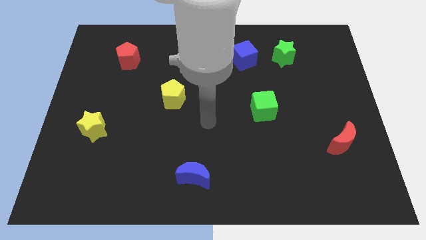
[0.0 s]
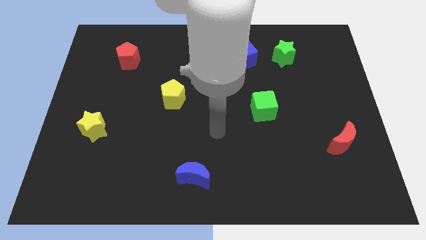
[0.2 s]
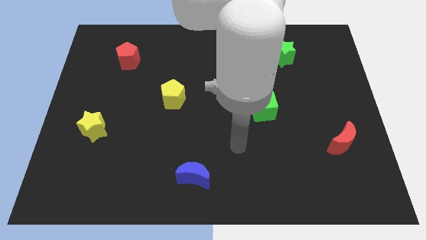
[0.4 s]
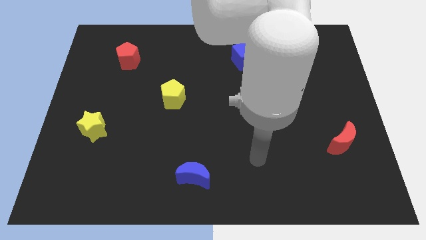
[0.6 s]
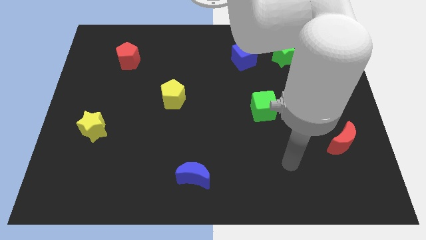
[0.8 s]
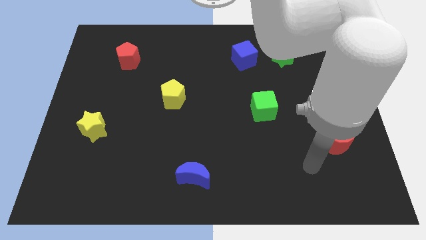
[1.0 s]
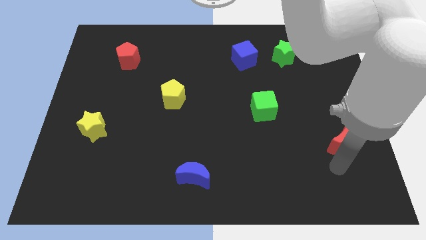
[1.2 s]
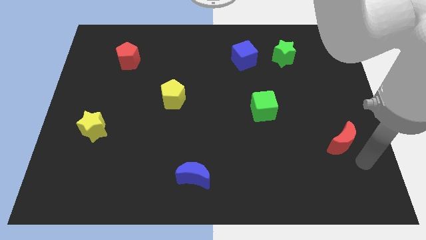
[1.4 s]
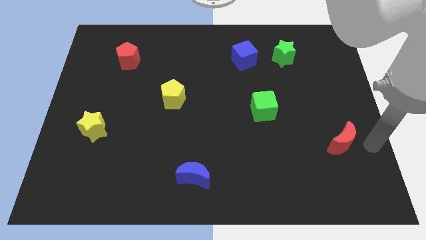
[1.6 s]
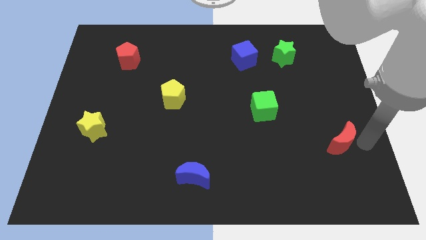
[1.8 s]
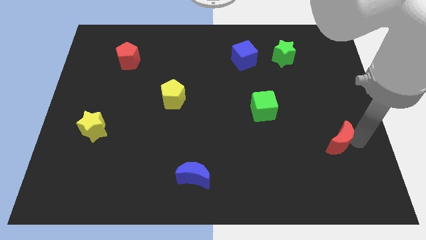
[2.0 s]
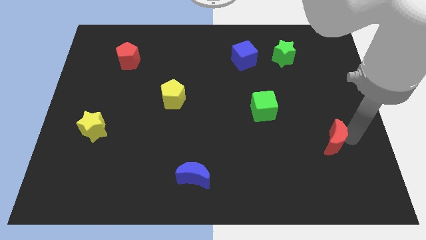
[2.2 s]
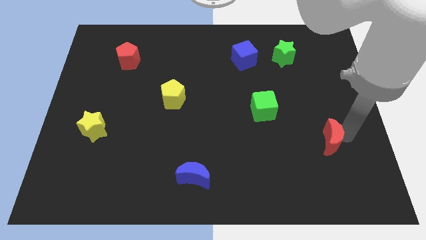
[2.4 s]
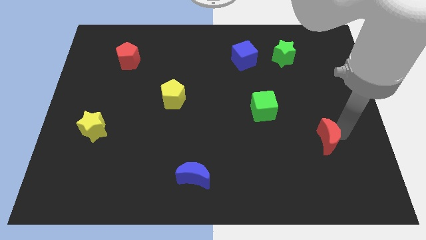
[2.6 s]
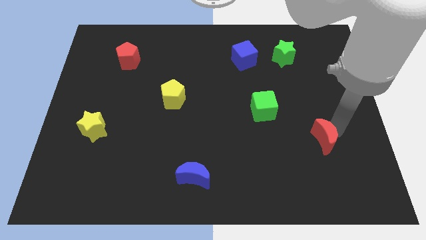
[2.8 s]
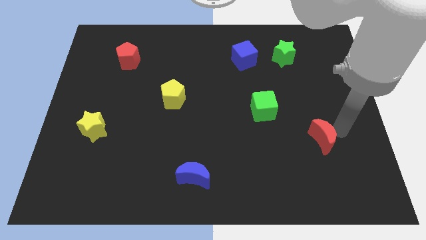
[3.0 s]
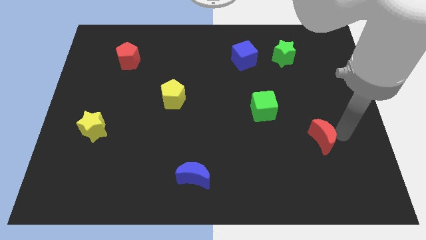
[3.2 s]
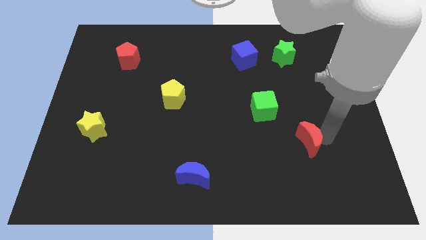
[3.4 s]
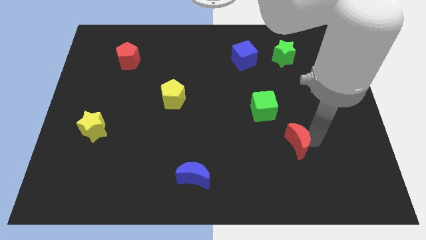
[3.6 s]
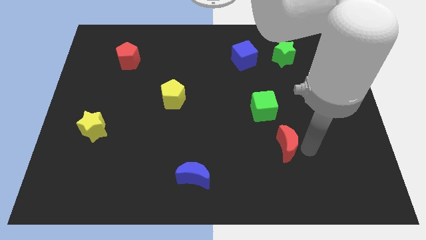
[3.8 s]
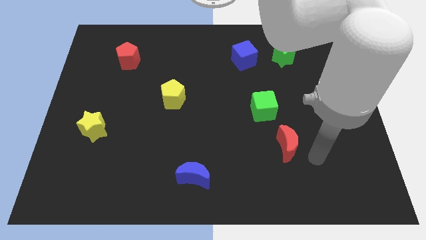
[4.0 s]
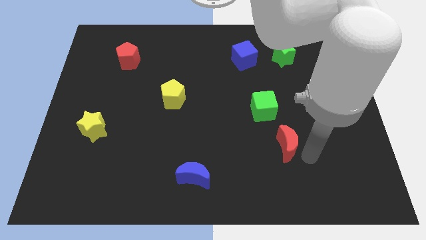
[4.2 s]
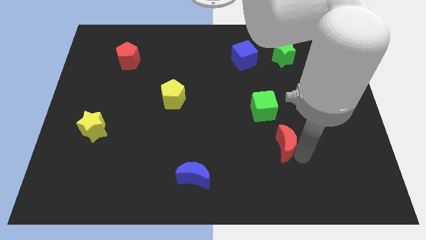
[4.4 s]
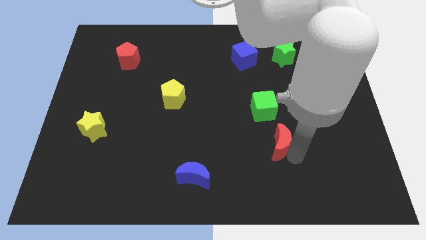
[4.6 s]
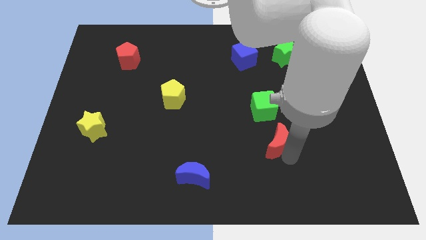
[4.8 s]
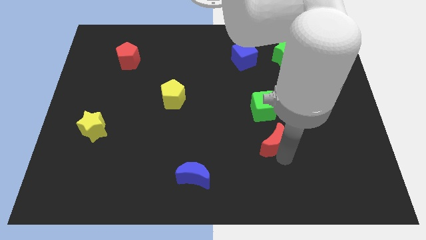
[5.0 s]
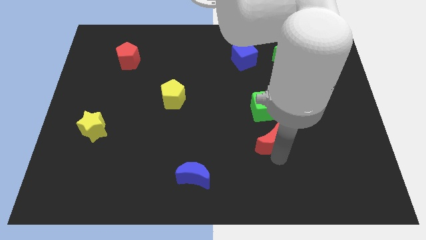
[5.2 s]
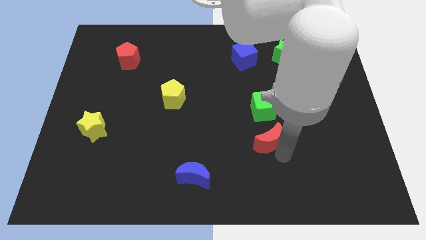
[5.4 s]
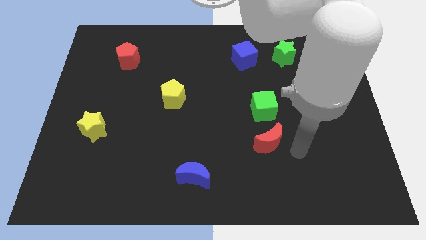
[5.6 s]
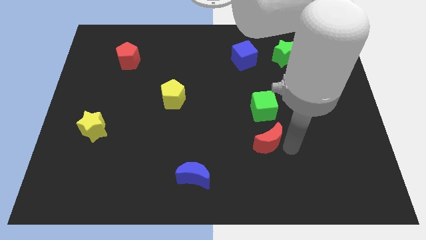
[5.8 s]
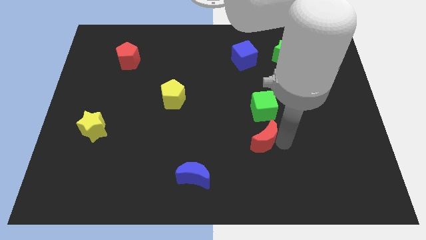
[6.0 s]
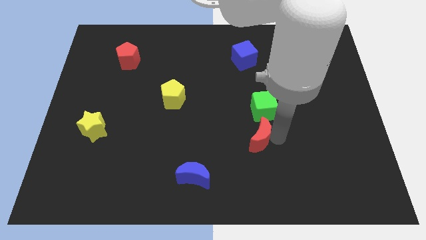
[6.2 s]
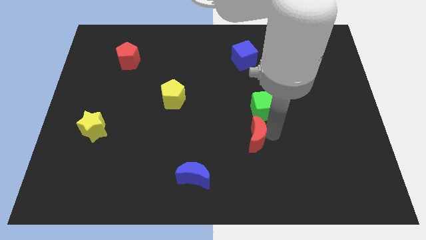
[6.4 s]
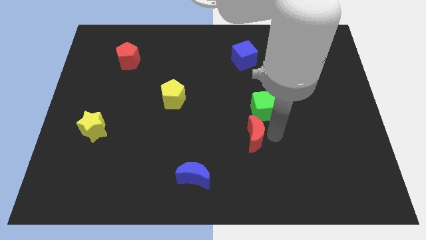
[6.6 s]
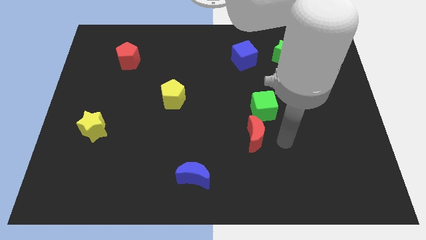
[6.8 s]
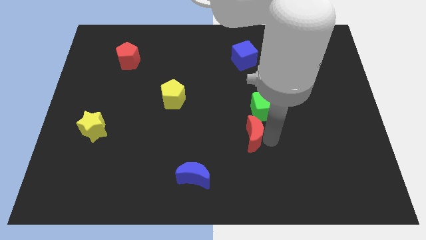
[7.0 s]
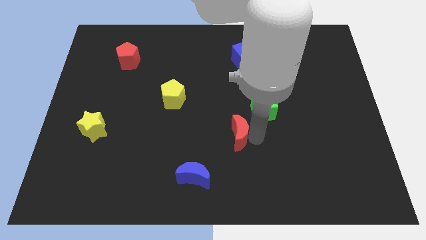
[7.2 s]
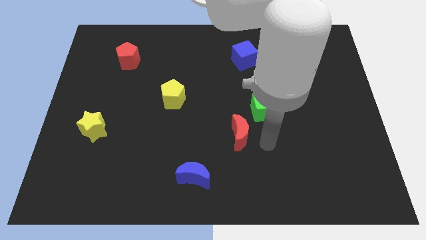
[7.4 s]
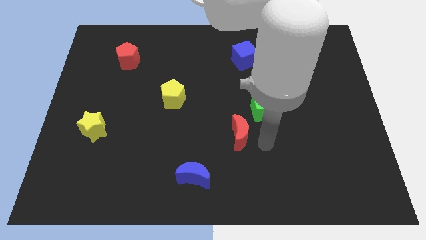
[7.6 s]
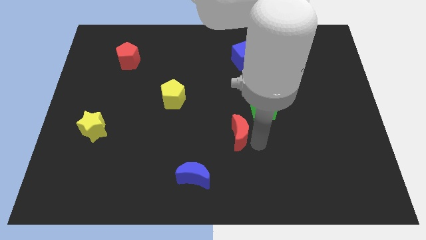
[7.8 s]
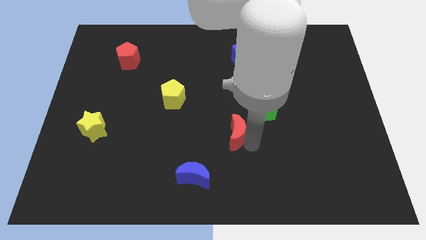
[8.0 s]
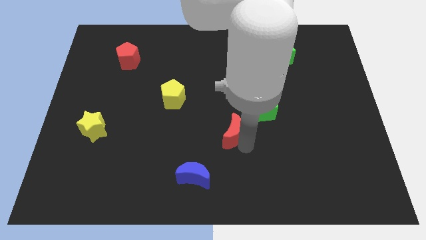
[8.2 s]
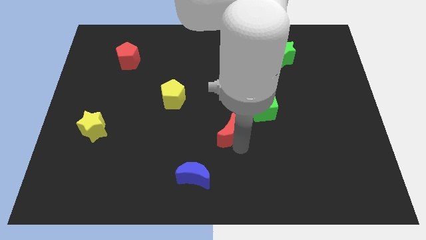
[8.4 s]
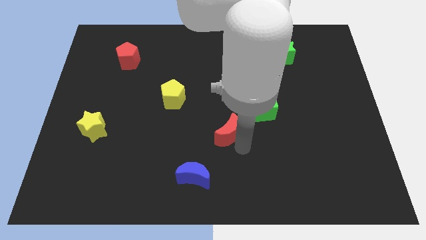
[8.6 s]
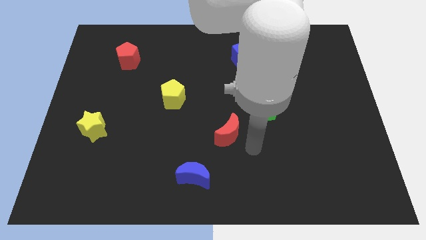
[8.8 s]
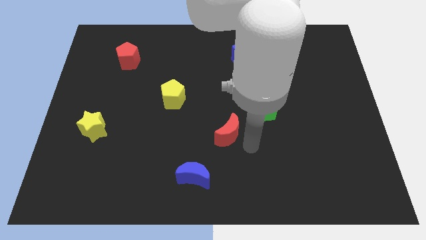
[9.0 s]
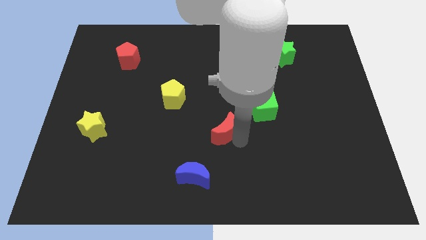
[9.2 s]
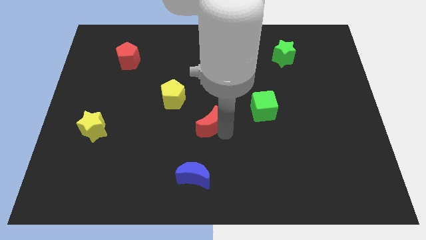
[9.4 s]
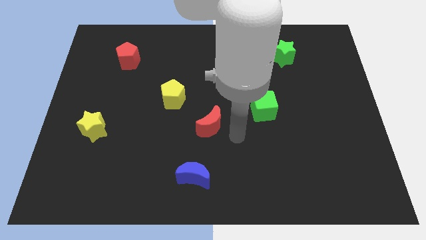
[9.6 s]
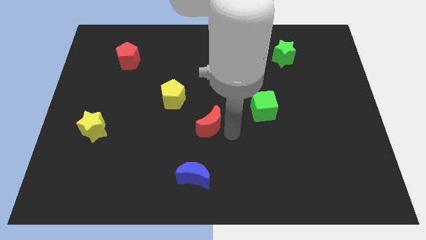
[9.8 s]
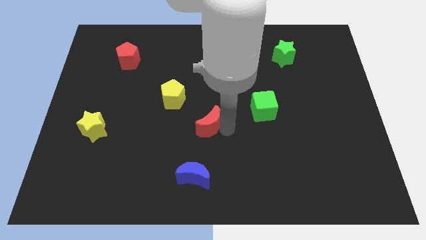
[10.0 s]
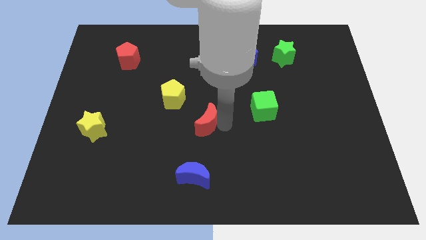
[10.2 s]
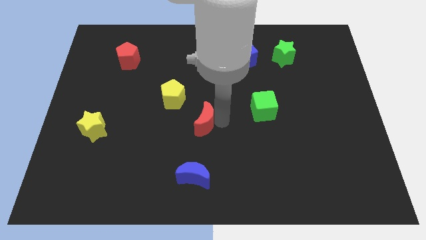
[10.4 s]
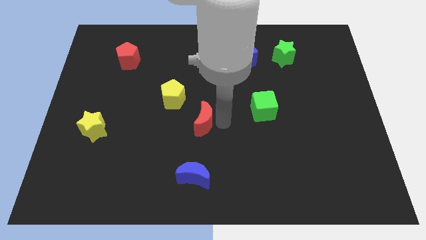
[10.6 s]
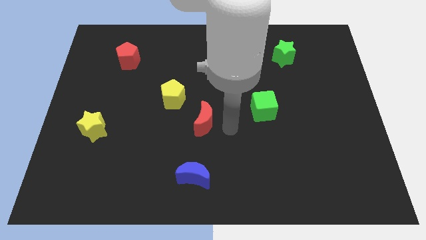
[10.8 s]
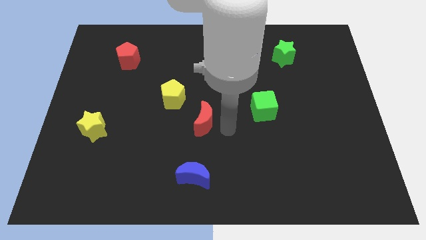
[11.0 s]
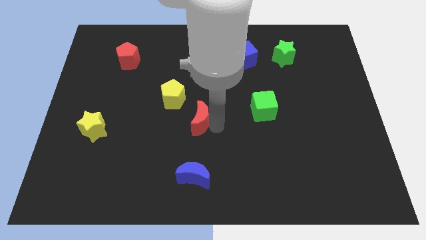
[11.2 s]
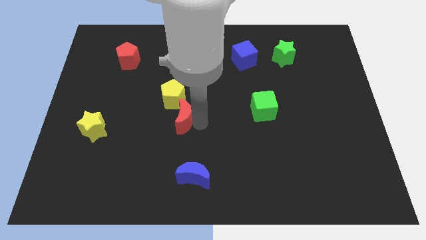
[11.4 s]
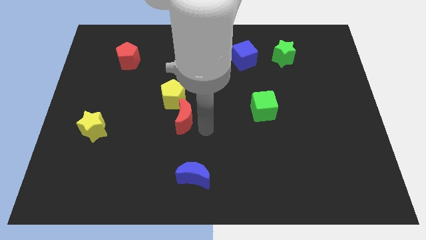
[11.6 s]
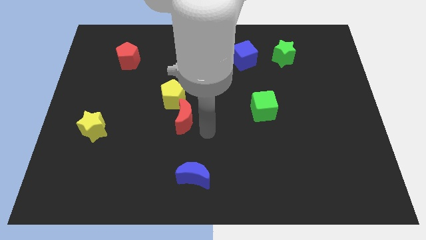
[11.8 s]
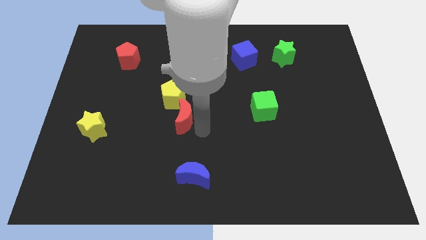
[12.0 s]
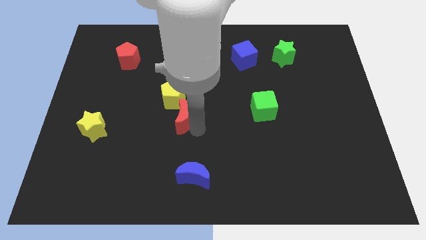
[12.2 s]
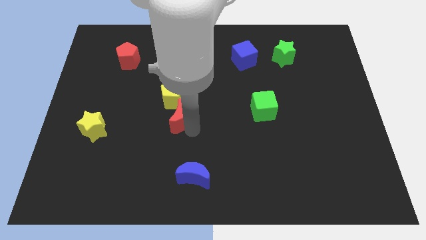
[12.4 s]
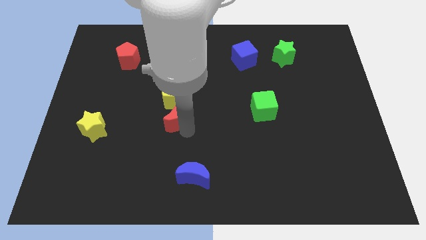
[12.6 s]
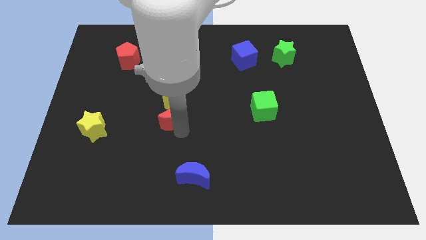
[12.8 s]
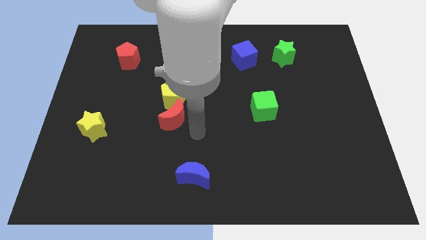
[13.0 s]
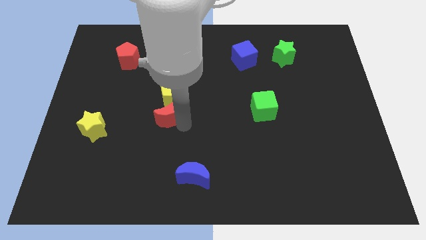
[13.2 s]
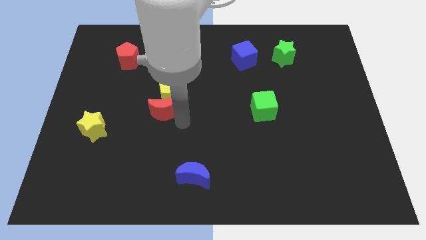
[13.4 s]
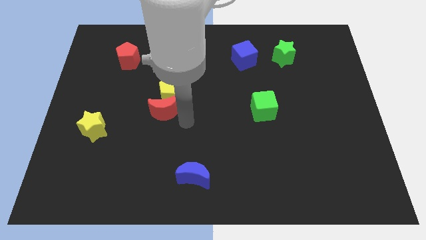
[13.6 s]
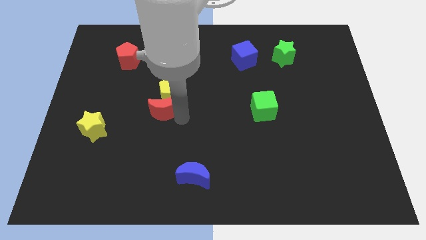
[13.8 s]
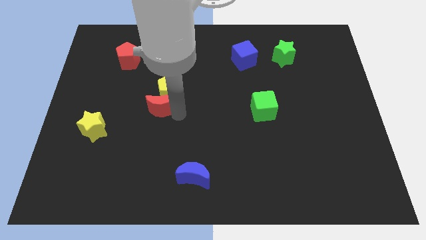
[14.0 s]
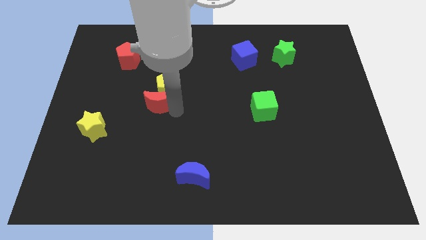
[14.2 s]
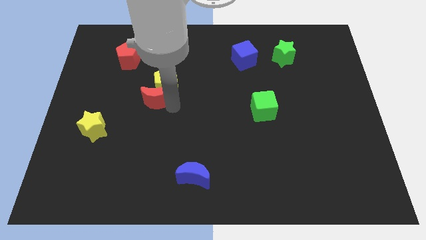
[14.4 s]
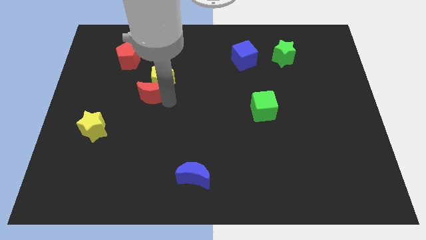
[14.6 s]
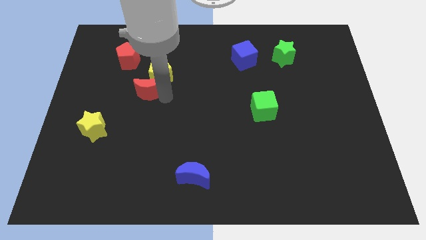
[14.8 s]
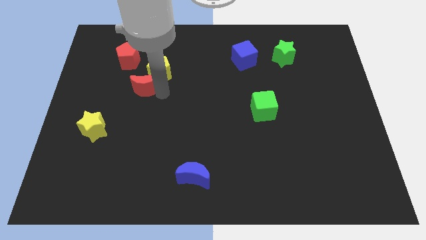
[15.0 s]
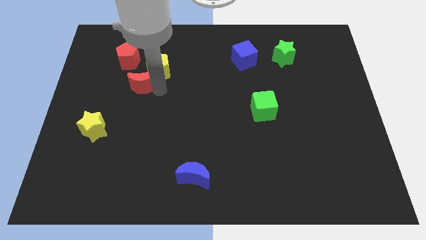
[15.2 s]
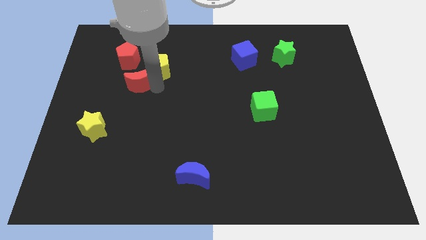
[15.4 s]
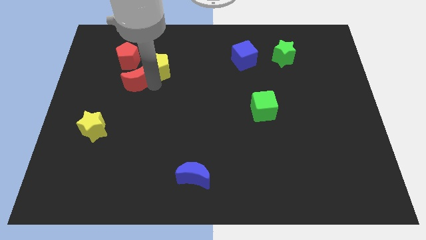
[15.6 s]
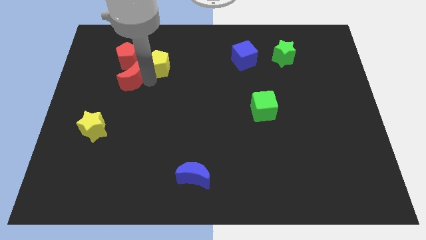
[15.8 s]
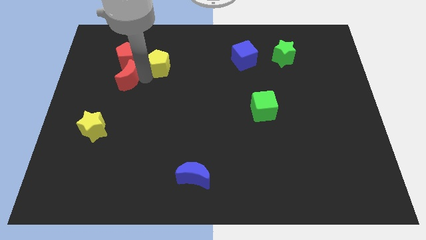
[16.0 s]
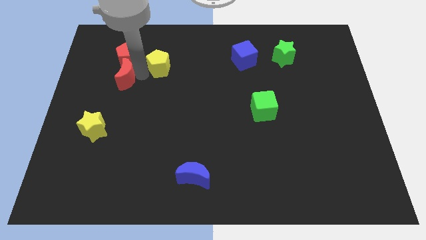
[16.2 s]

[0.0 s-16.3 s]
move the red moon to the bottom left of the red pentagon
